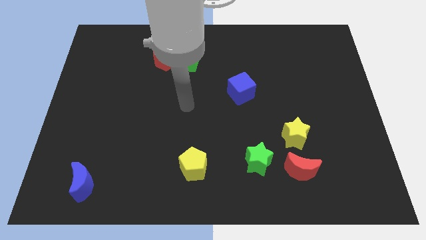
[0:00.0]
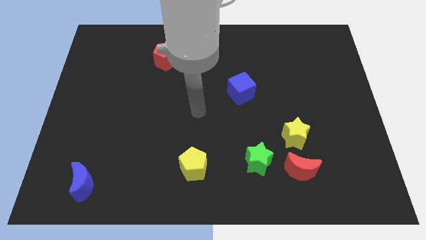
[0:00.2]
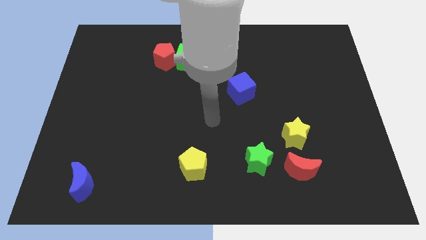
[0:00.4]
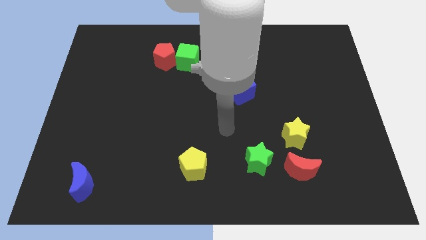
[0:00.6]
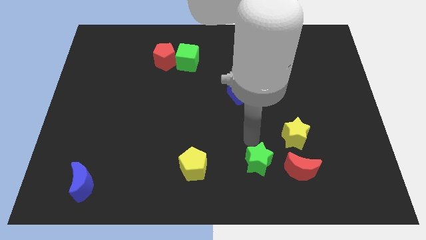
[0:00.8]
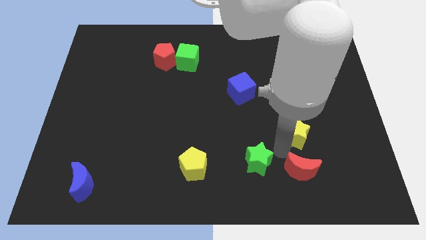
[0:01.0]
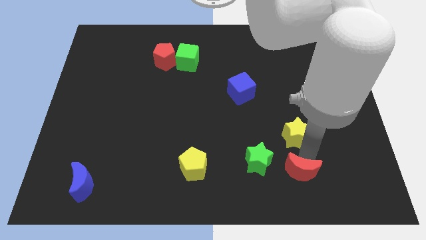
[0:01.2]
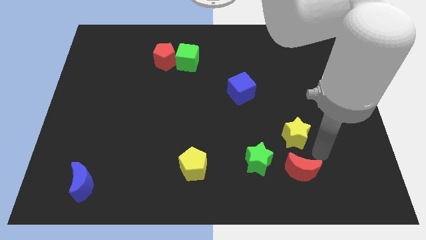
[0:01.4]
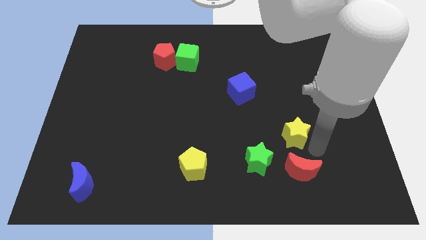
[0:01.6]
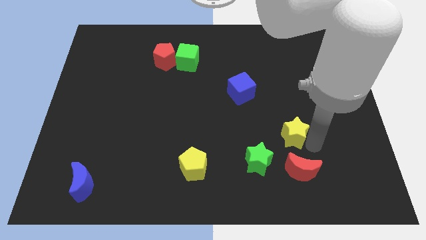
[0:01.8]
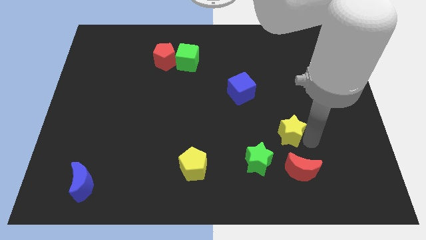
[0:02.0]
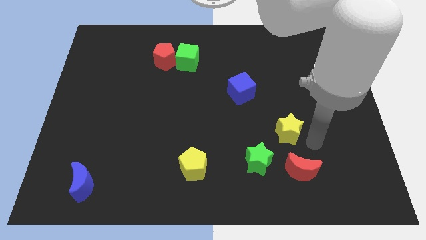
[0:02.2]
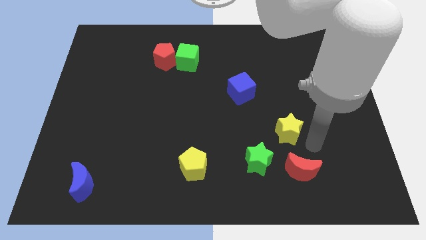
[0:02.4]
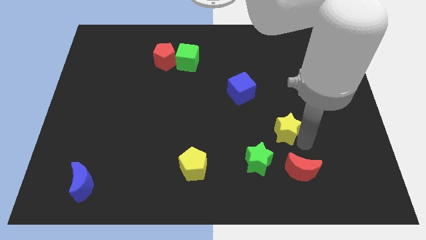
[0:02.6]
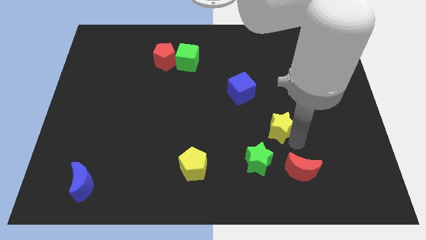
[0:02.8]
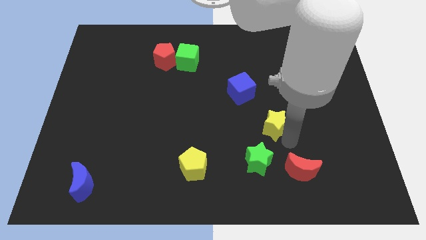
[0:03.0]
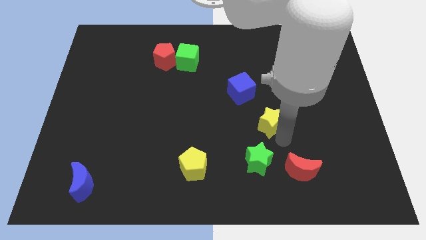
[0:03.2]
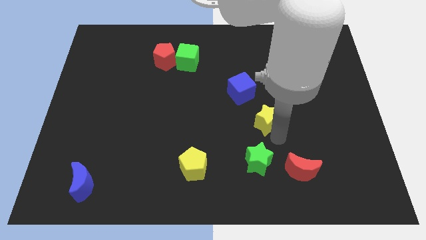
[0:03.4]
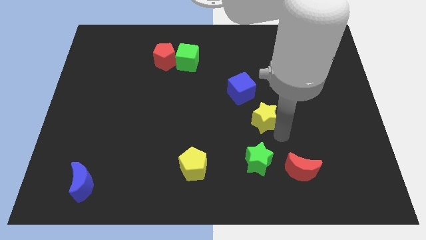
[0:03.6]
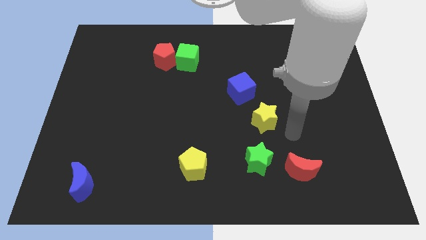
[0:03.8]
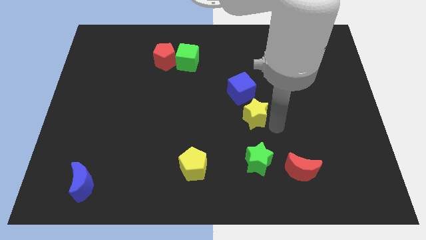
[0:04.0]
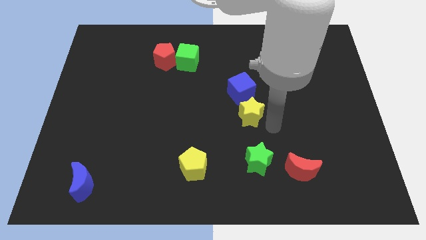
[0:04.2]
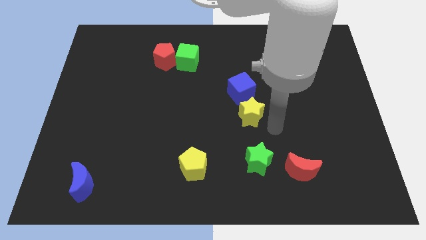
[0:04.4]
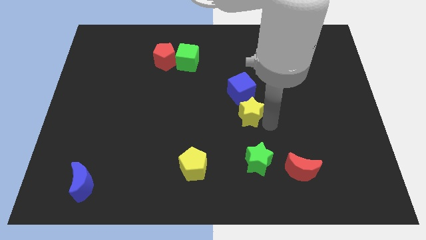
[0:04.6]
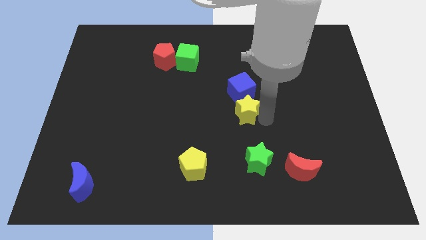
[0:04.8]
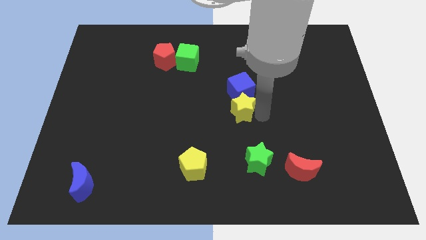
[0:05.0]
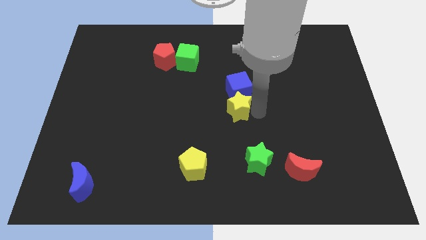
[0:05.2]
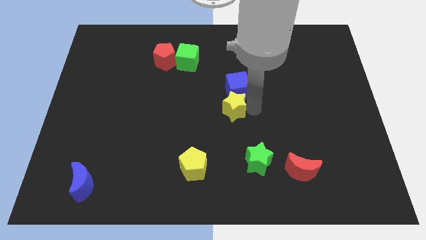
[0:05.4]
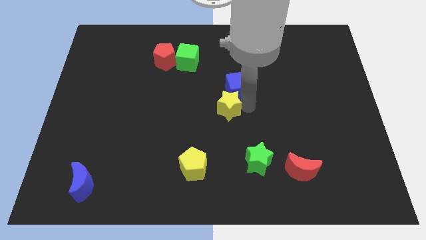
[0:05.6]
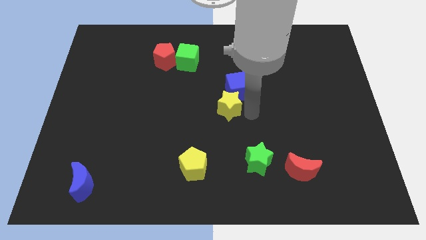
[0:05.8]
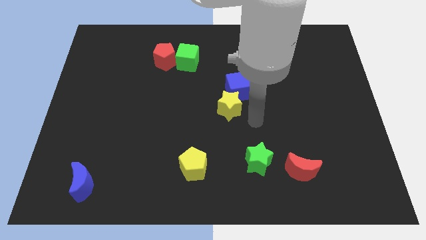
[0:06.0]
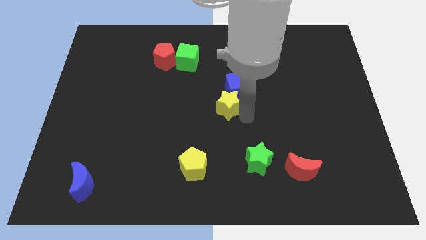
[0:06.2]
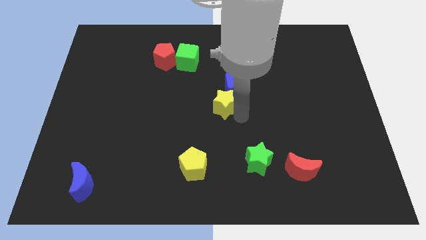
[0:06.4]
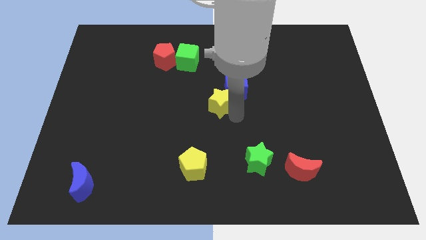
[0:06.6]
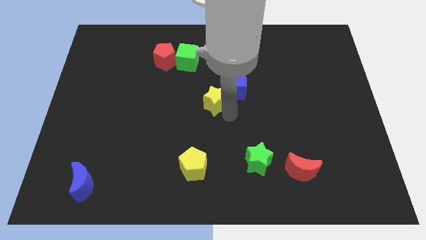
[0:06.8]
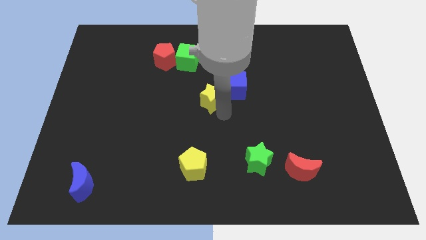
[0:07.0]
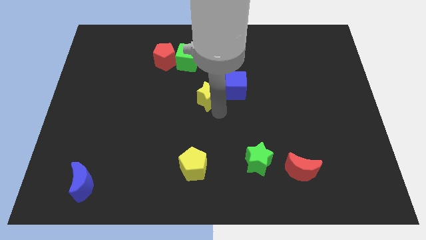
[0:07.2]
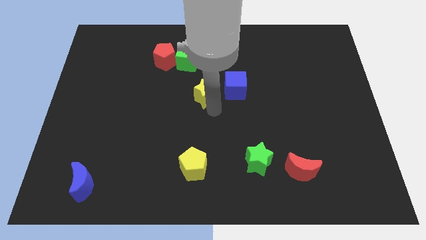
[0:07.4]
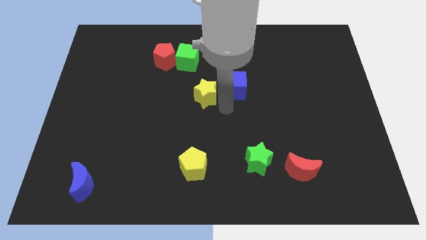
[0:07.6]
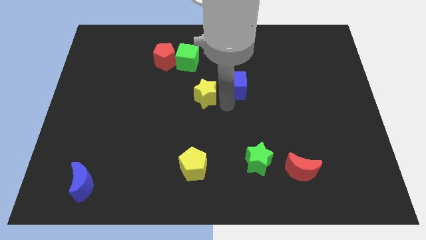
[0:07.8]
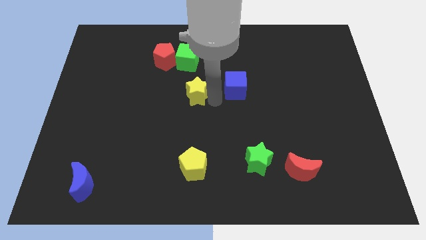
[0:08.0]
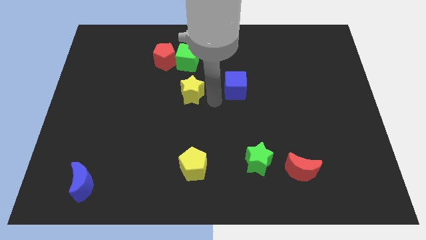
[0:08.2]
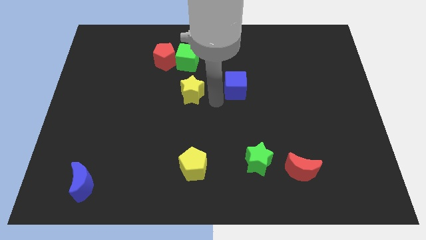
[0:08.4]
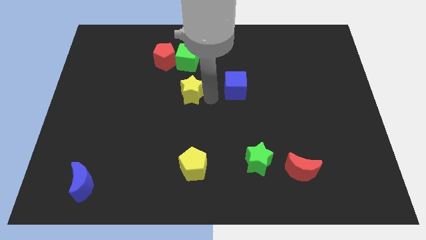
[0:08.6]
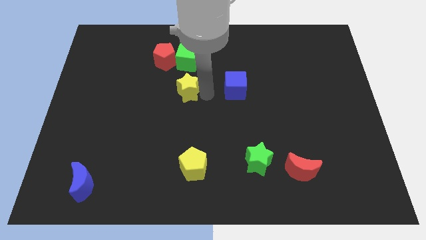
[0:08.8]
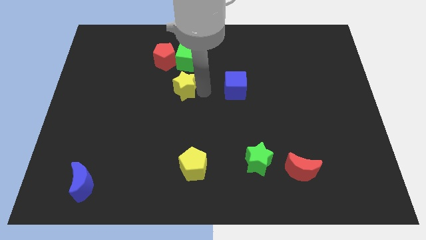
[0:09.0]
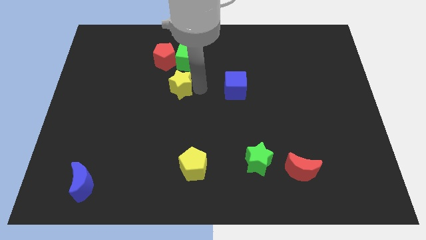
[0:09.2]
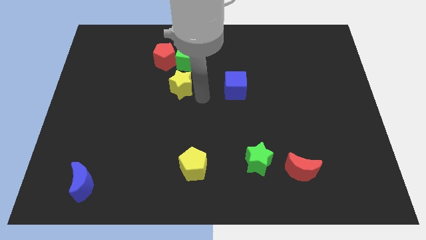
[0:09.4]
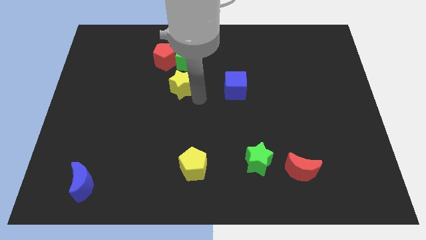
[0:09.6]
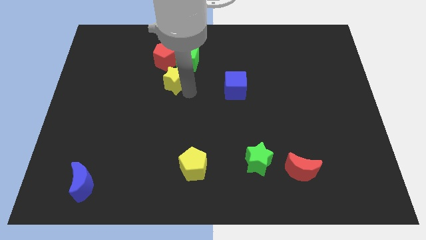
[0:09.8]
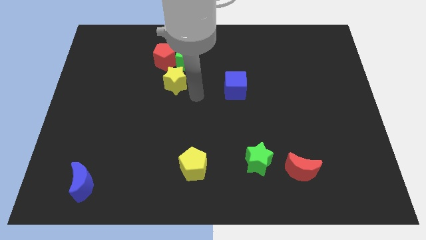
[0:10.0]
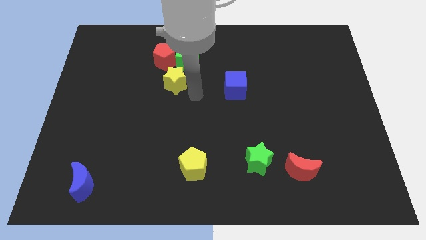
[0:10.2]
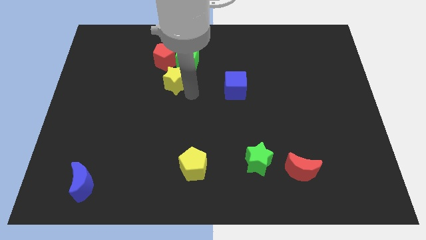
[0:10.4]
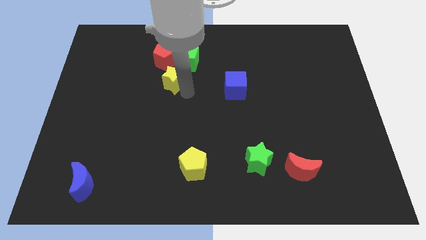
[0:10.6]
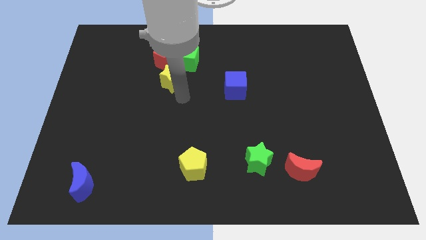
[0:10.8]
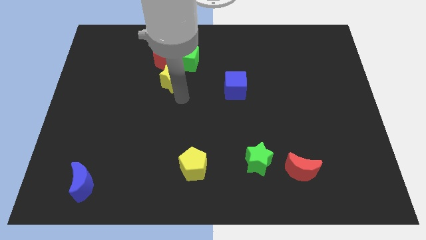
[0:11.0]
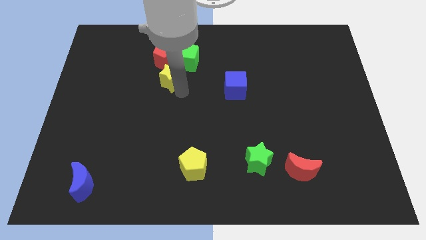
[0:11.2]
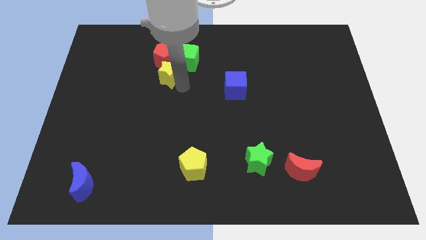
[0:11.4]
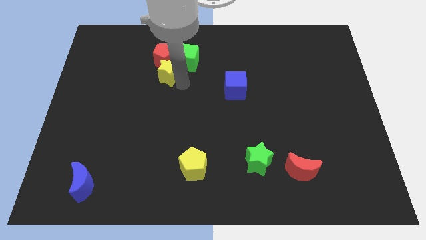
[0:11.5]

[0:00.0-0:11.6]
slide the yellow star close to the red pentagon

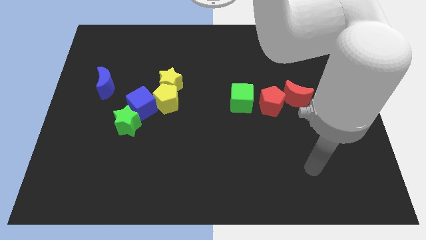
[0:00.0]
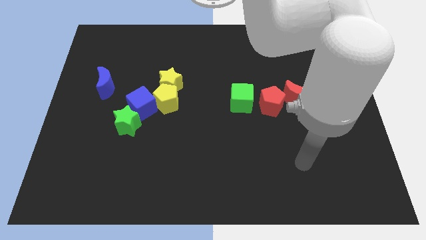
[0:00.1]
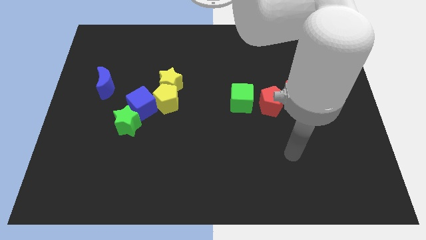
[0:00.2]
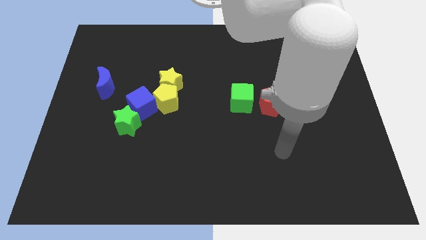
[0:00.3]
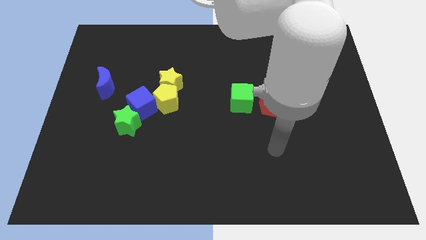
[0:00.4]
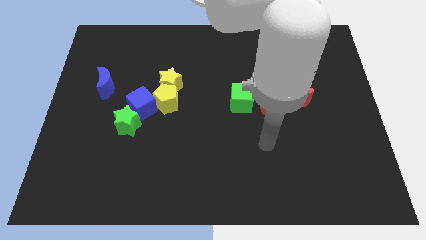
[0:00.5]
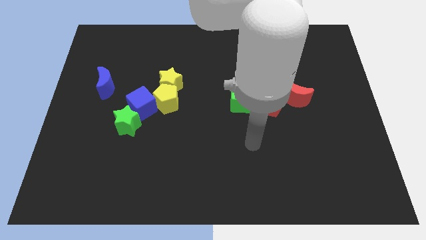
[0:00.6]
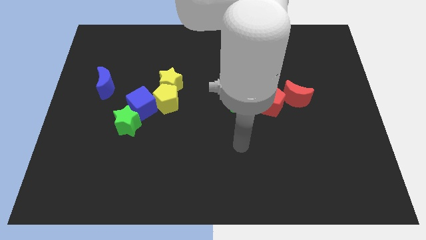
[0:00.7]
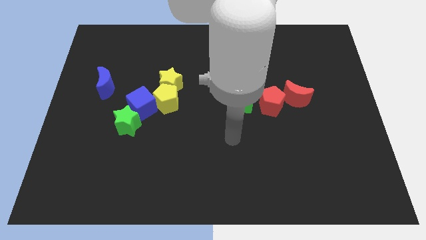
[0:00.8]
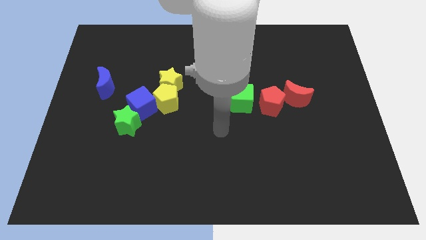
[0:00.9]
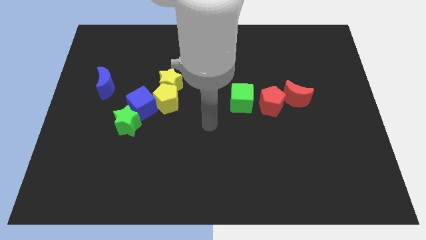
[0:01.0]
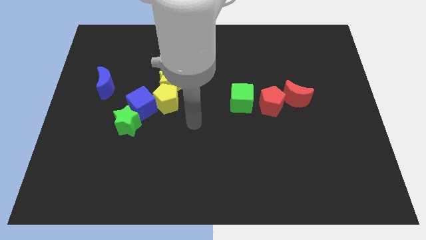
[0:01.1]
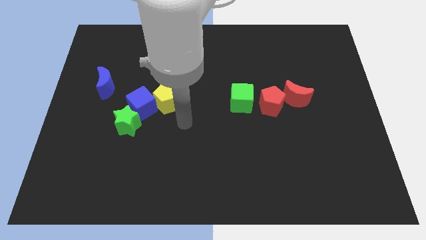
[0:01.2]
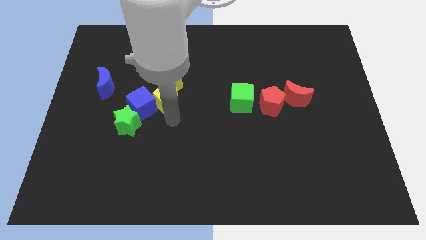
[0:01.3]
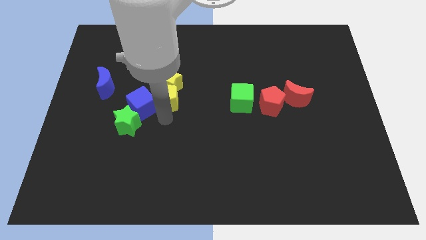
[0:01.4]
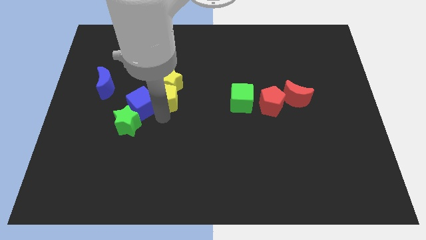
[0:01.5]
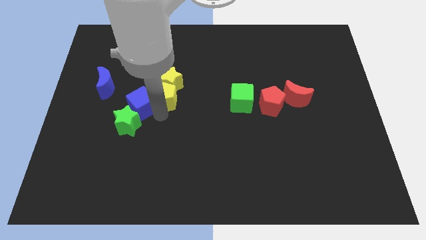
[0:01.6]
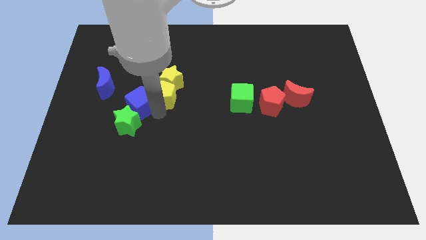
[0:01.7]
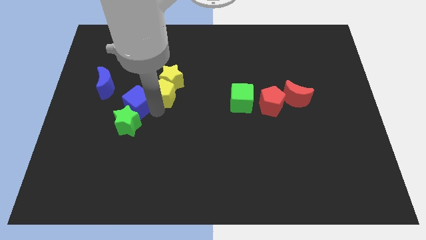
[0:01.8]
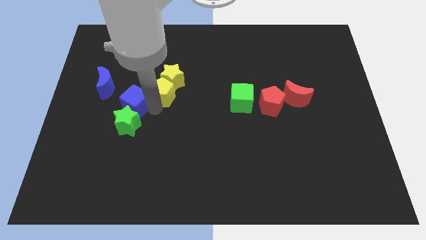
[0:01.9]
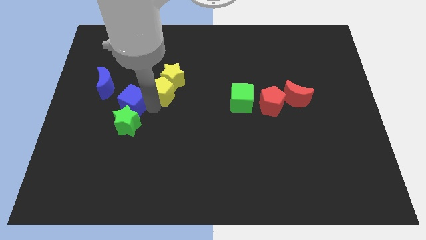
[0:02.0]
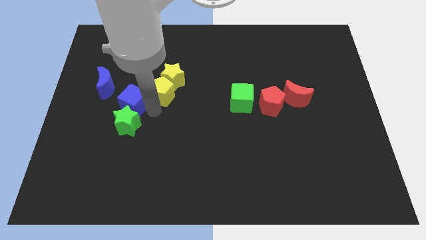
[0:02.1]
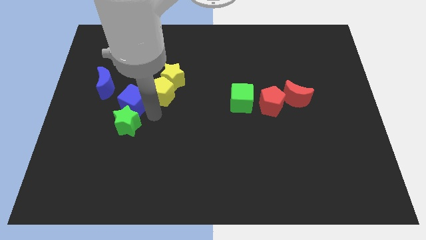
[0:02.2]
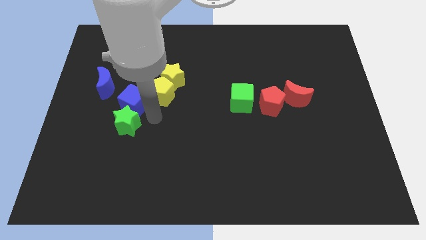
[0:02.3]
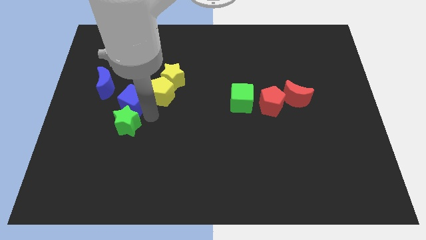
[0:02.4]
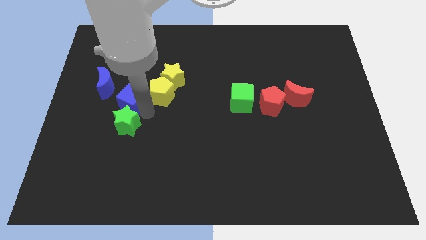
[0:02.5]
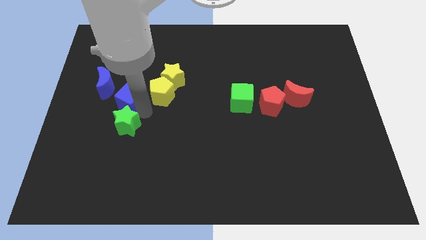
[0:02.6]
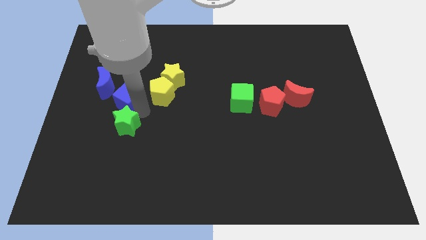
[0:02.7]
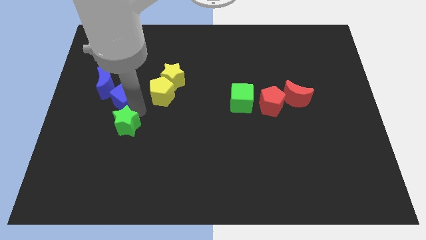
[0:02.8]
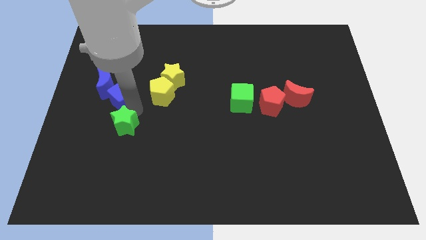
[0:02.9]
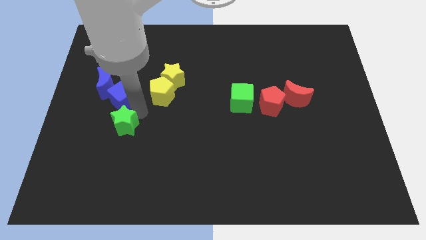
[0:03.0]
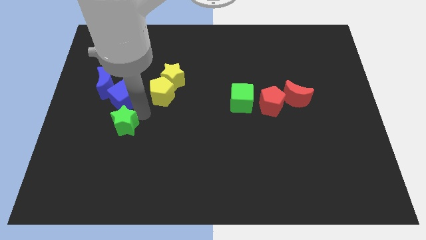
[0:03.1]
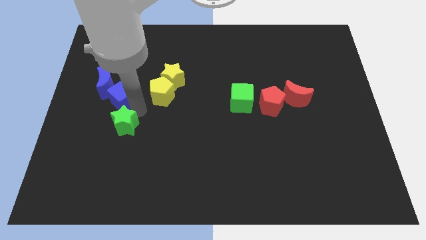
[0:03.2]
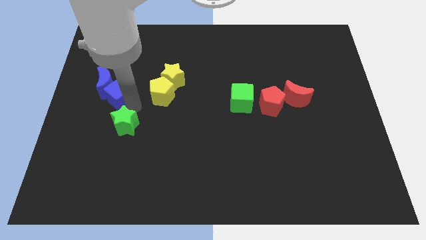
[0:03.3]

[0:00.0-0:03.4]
put the blue cube to the blue moon
